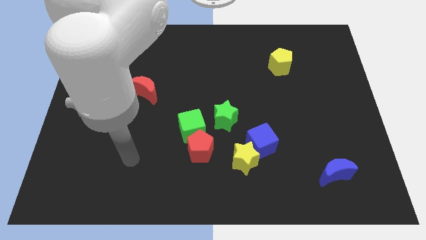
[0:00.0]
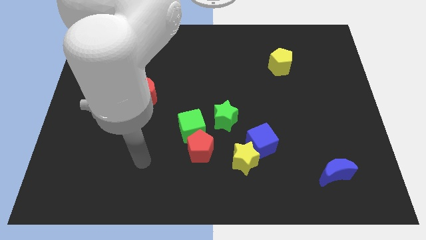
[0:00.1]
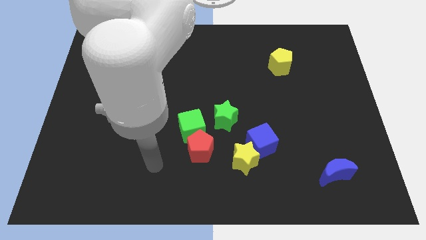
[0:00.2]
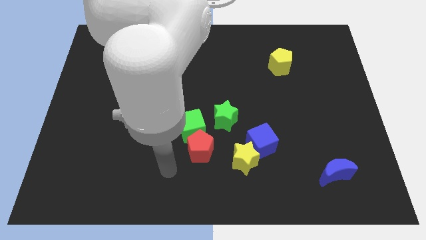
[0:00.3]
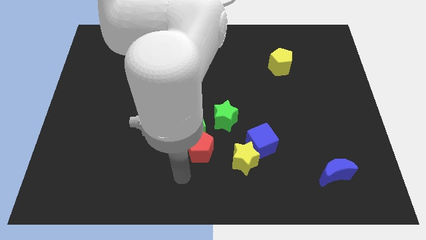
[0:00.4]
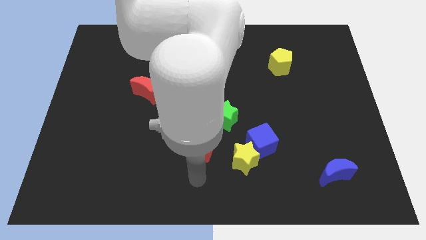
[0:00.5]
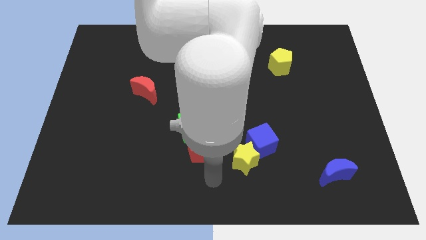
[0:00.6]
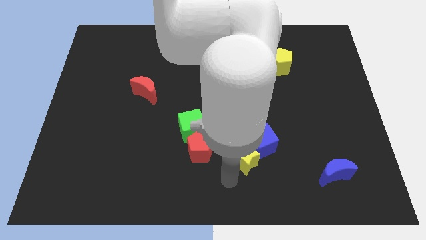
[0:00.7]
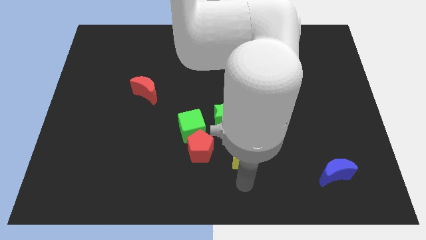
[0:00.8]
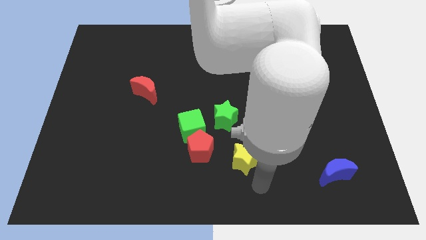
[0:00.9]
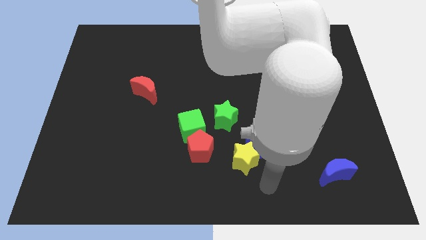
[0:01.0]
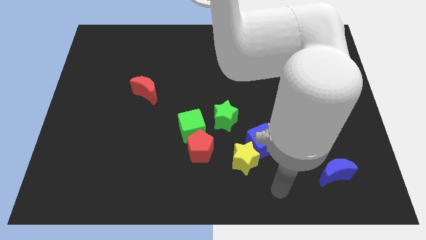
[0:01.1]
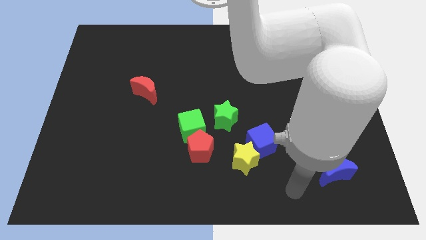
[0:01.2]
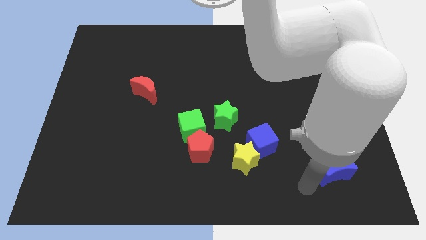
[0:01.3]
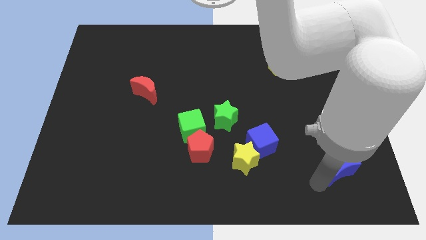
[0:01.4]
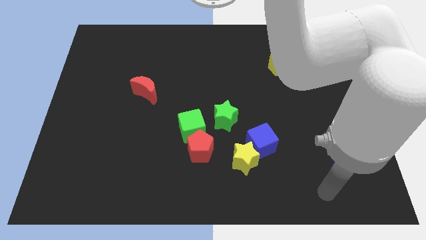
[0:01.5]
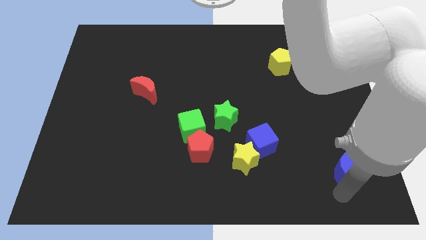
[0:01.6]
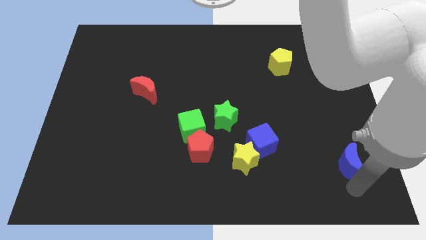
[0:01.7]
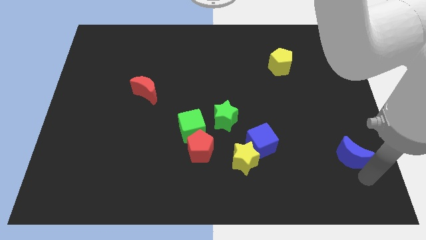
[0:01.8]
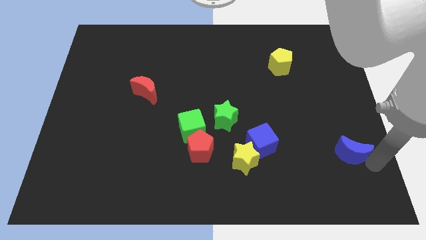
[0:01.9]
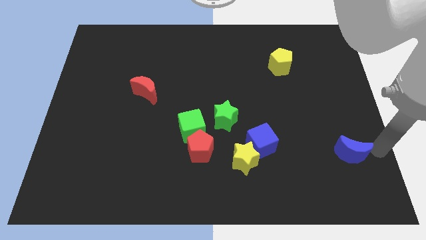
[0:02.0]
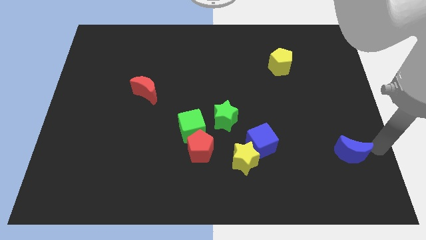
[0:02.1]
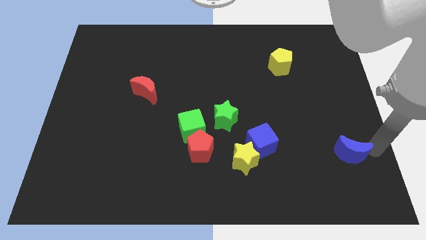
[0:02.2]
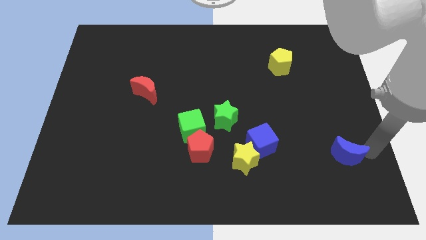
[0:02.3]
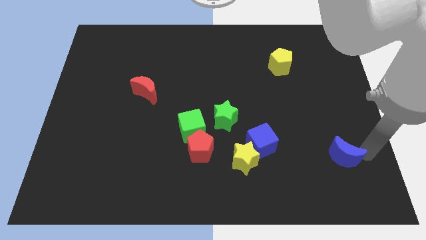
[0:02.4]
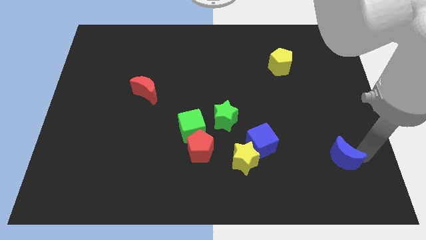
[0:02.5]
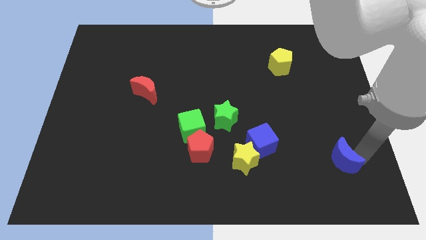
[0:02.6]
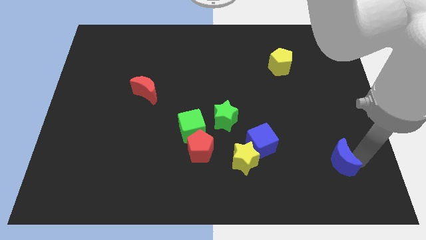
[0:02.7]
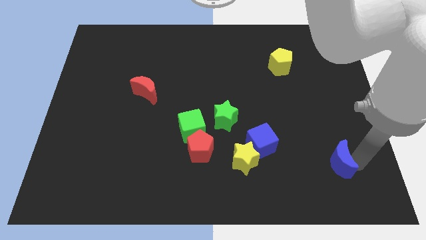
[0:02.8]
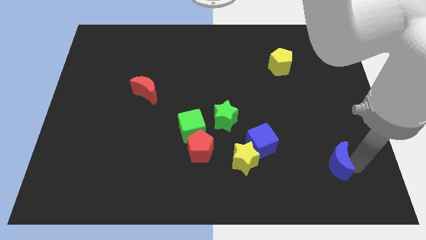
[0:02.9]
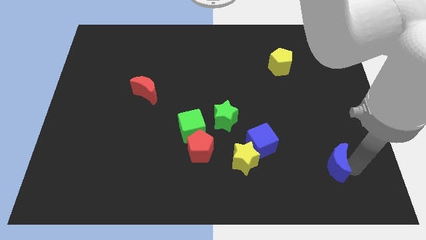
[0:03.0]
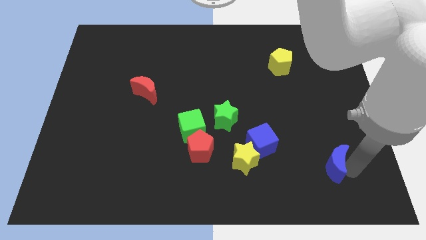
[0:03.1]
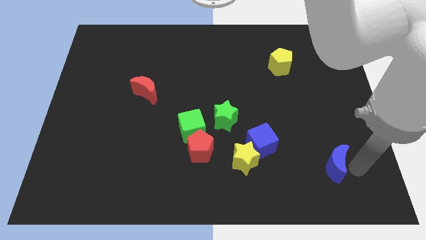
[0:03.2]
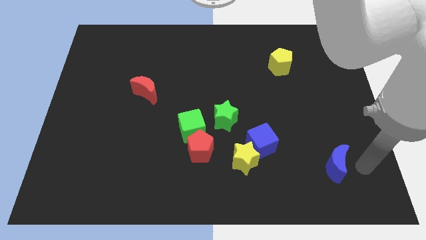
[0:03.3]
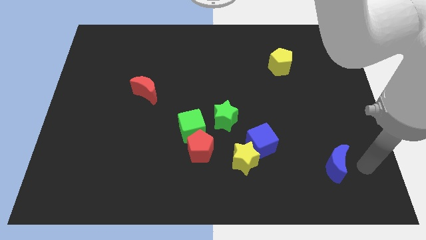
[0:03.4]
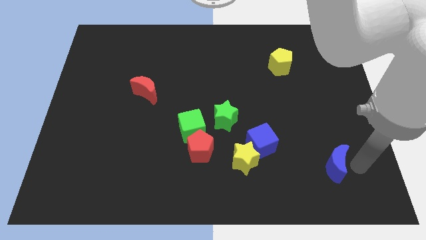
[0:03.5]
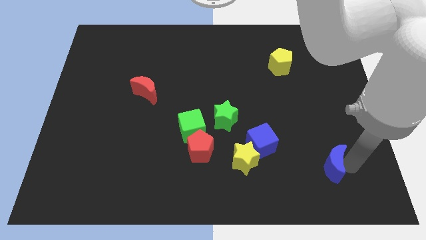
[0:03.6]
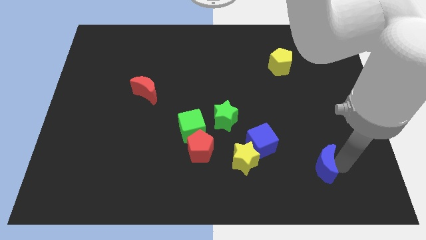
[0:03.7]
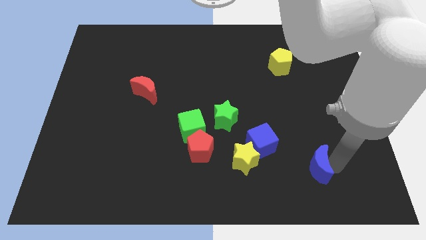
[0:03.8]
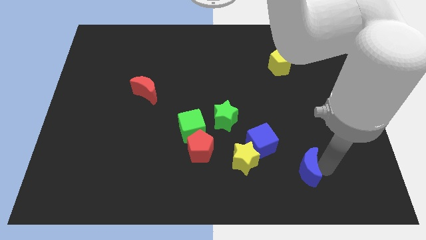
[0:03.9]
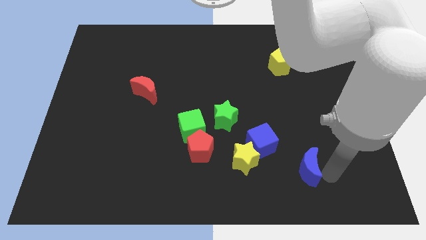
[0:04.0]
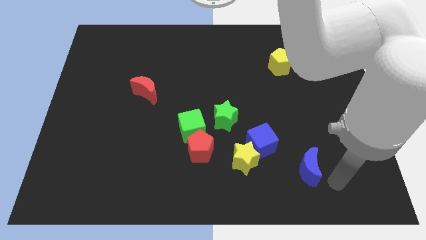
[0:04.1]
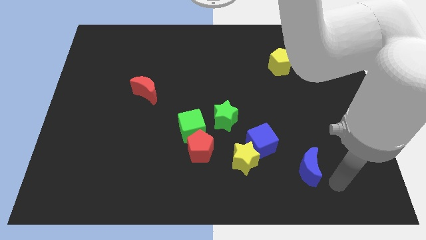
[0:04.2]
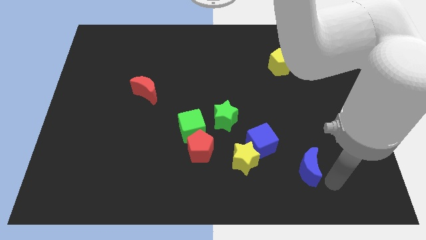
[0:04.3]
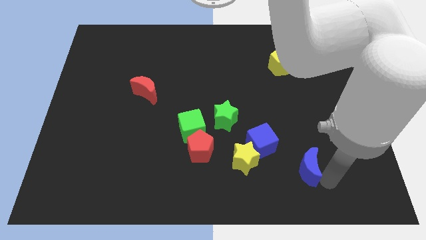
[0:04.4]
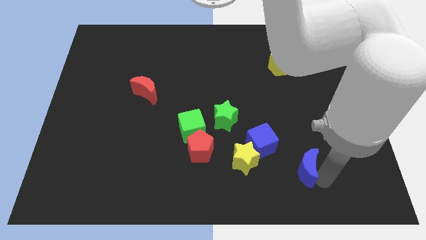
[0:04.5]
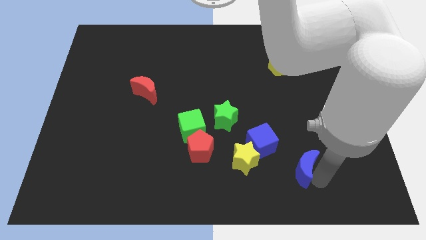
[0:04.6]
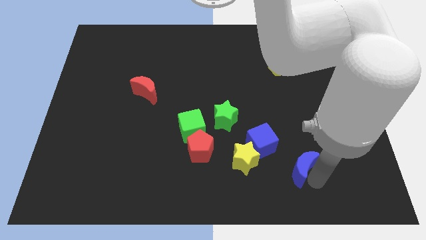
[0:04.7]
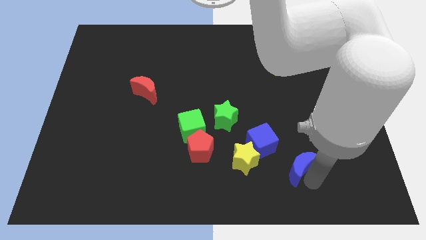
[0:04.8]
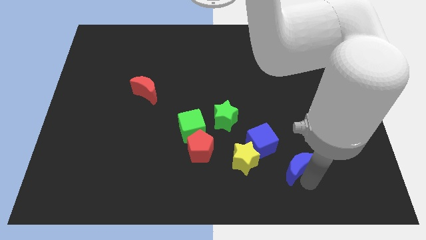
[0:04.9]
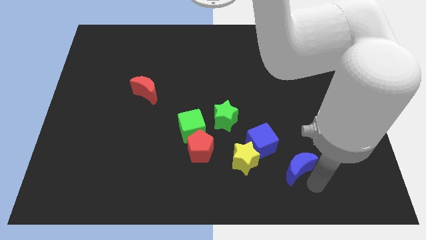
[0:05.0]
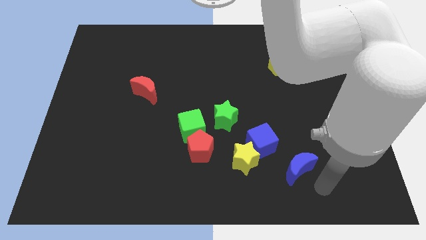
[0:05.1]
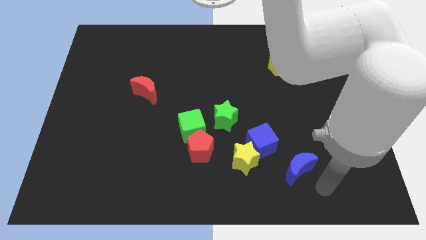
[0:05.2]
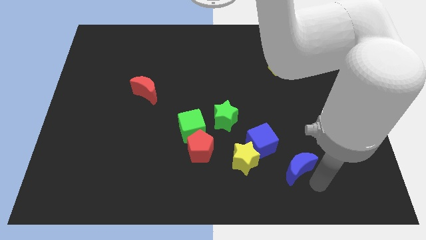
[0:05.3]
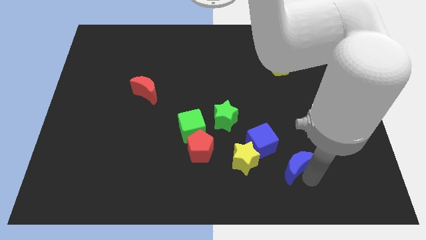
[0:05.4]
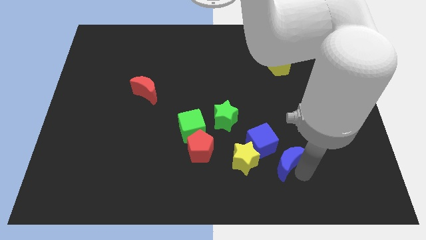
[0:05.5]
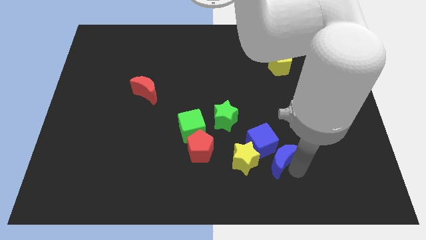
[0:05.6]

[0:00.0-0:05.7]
push the blue moon towards the blue cube

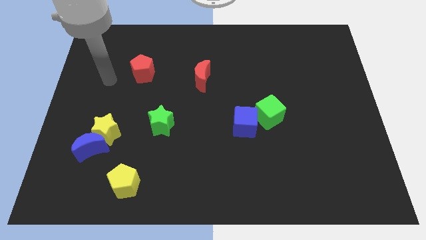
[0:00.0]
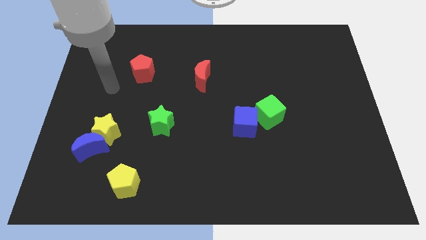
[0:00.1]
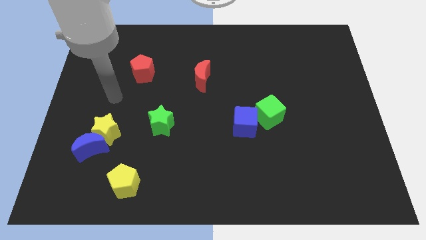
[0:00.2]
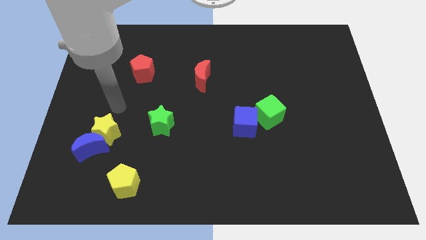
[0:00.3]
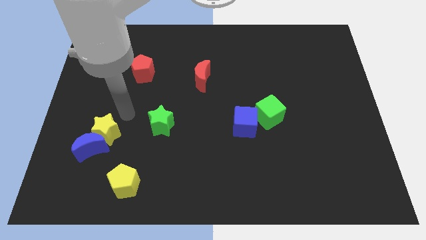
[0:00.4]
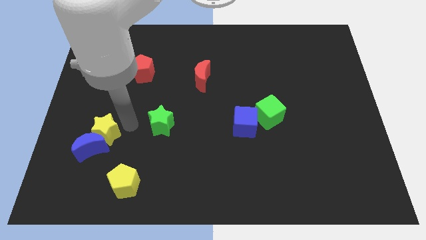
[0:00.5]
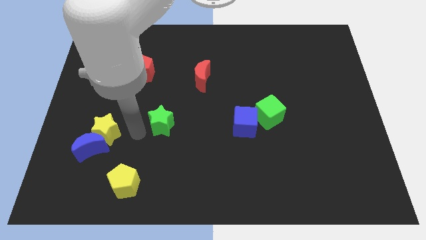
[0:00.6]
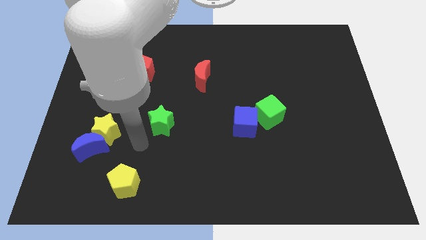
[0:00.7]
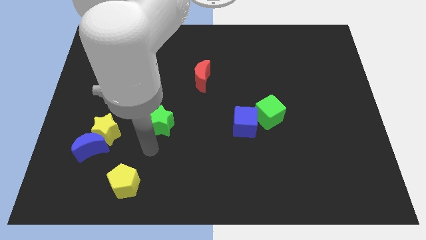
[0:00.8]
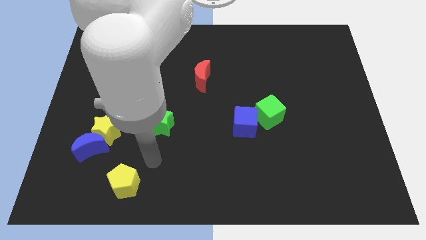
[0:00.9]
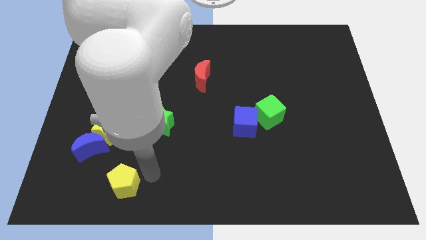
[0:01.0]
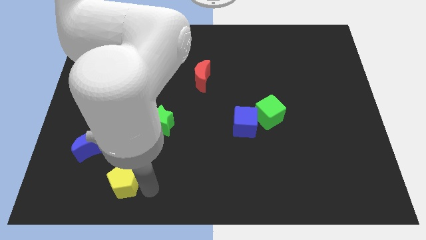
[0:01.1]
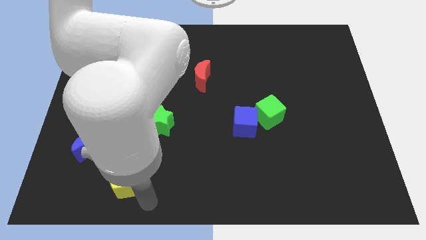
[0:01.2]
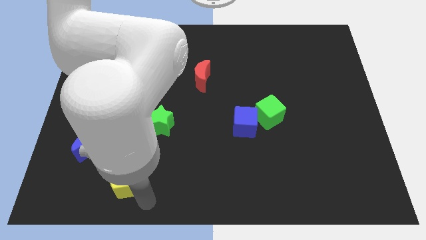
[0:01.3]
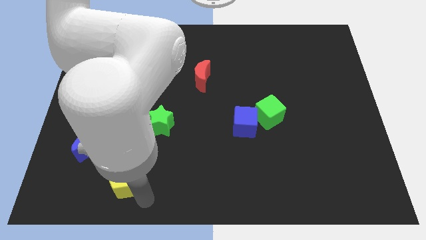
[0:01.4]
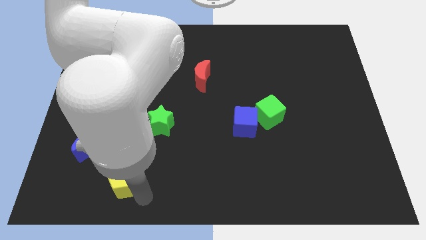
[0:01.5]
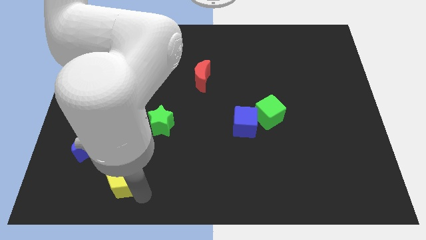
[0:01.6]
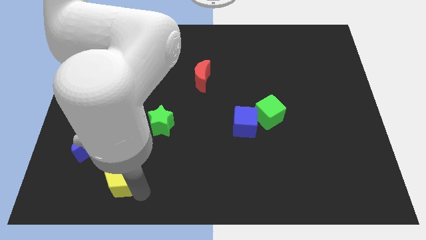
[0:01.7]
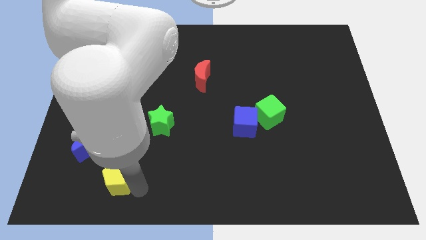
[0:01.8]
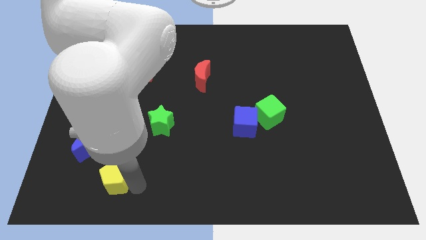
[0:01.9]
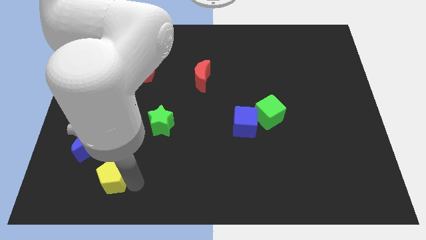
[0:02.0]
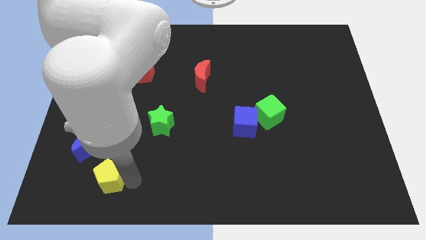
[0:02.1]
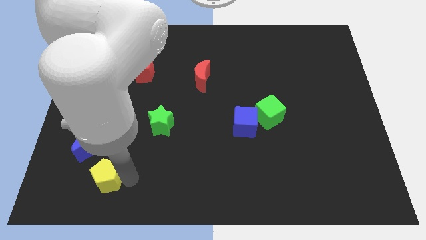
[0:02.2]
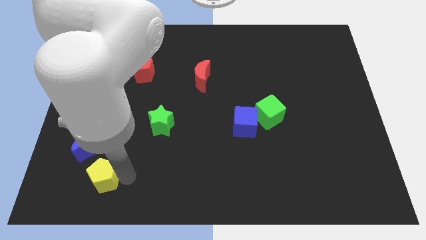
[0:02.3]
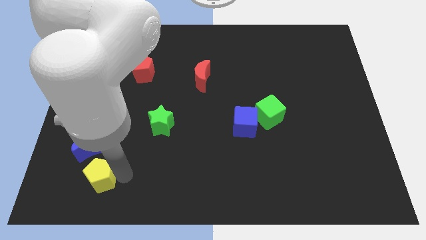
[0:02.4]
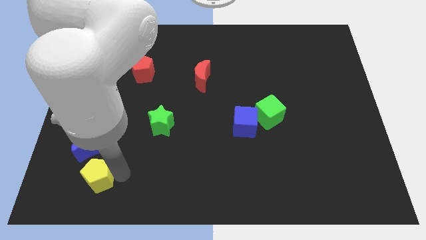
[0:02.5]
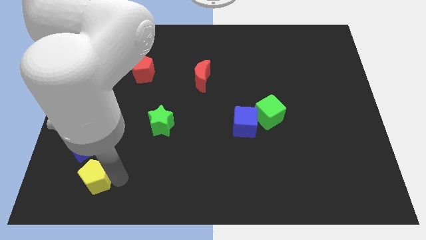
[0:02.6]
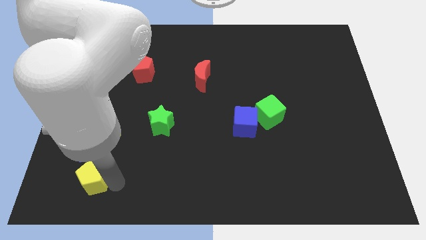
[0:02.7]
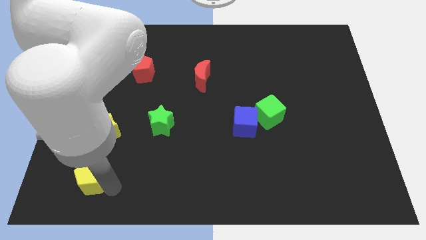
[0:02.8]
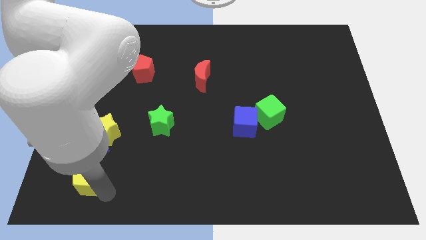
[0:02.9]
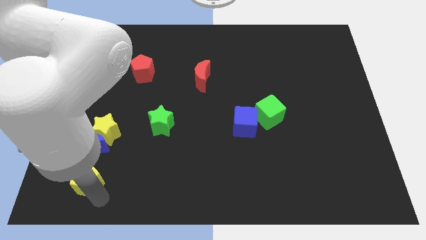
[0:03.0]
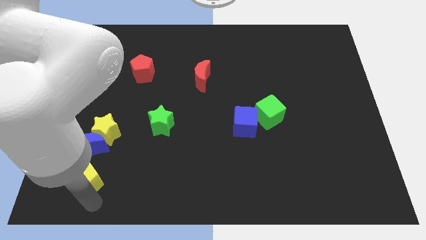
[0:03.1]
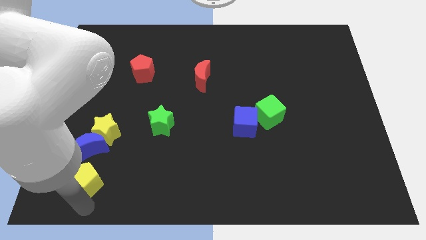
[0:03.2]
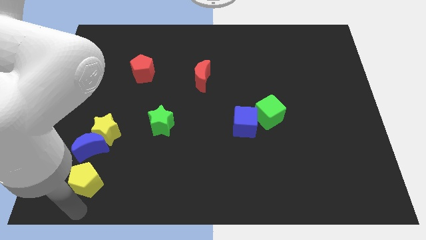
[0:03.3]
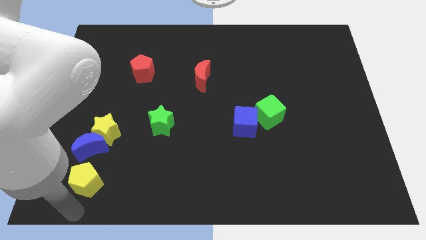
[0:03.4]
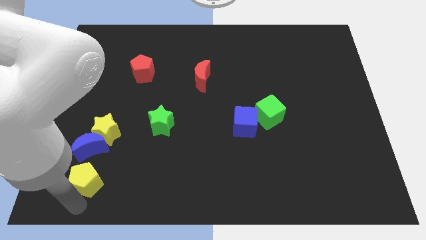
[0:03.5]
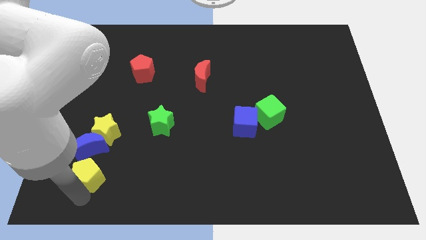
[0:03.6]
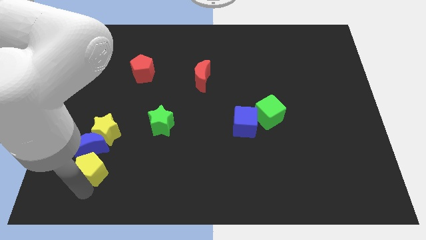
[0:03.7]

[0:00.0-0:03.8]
put the yellow pentagon close to the blue moon
